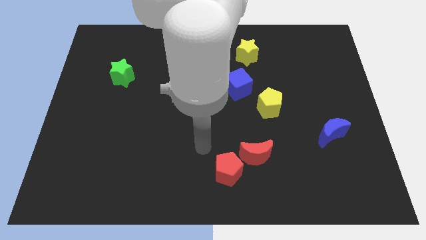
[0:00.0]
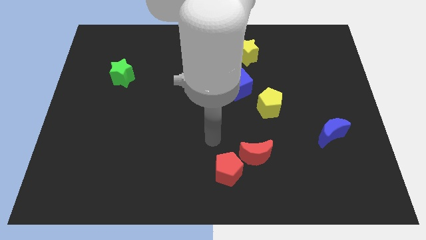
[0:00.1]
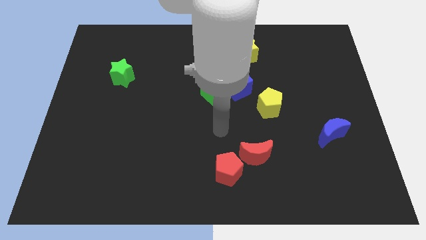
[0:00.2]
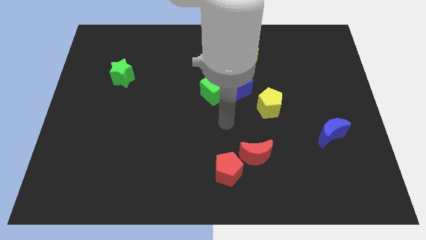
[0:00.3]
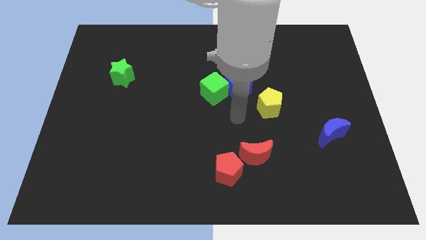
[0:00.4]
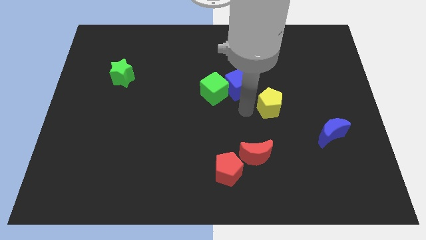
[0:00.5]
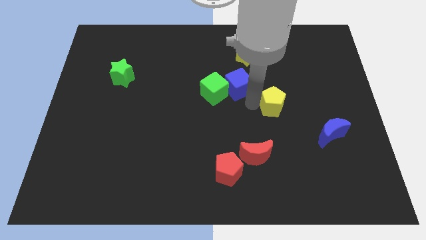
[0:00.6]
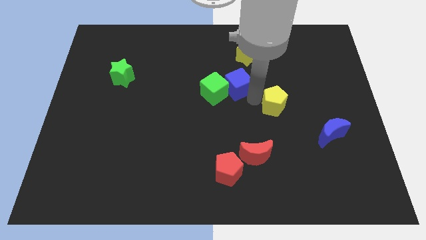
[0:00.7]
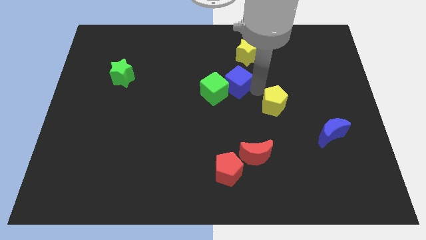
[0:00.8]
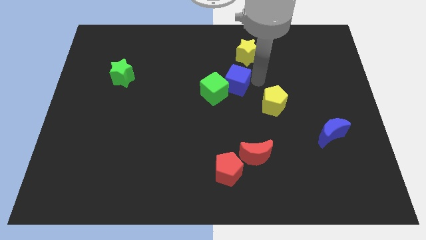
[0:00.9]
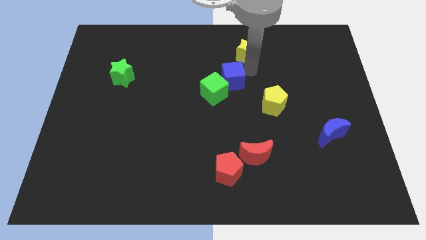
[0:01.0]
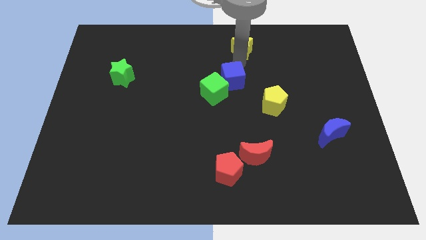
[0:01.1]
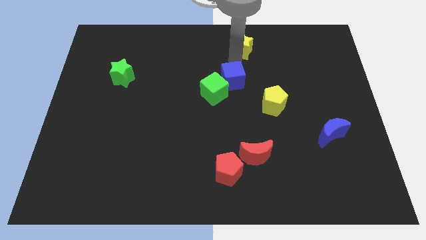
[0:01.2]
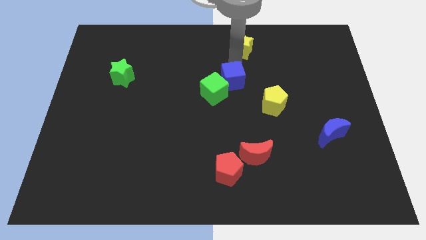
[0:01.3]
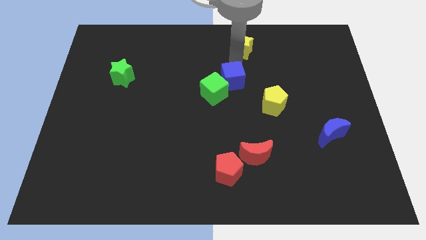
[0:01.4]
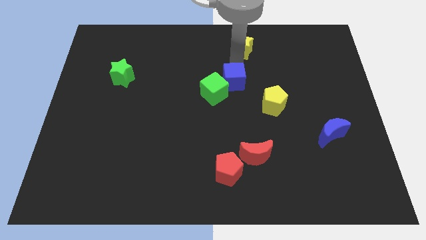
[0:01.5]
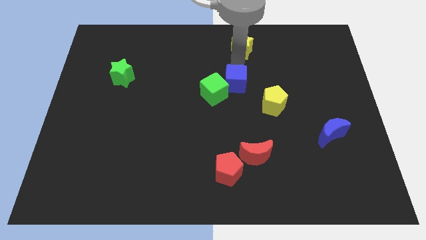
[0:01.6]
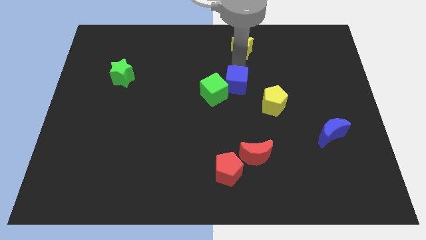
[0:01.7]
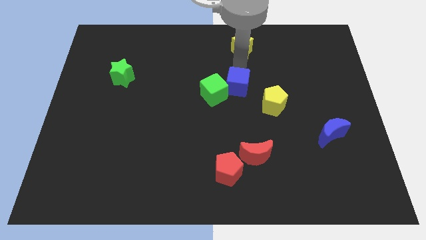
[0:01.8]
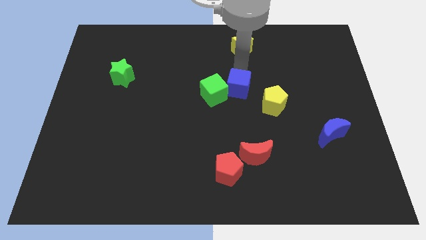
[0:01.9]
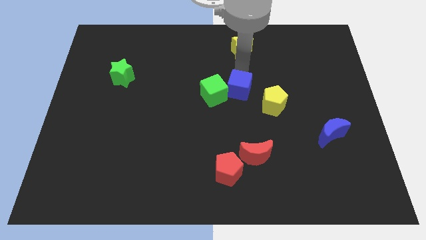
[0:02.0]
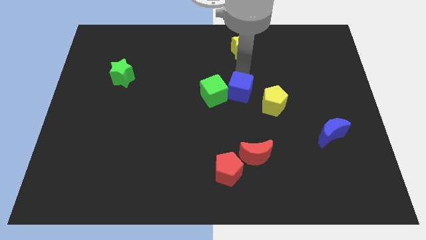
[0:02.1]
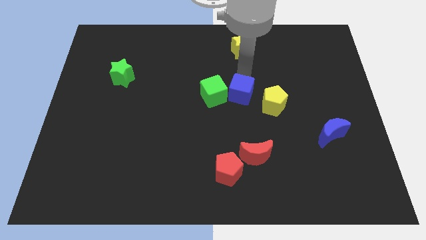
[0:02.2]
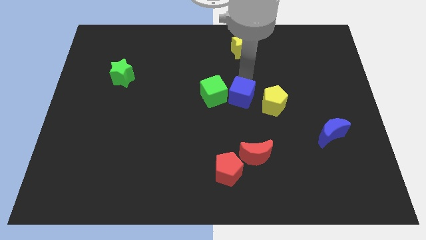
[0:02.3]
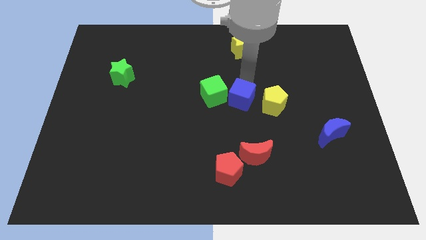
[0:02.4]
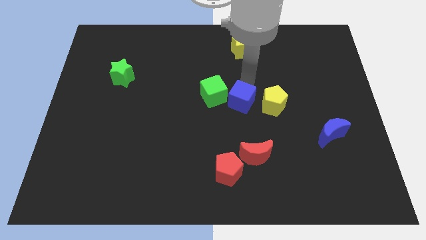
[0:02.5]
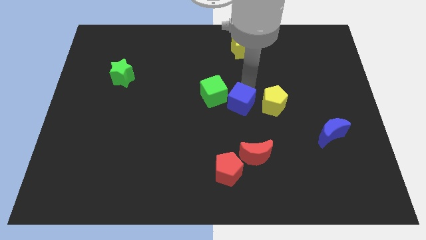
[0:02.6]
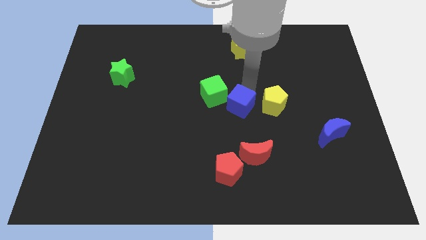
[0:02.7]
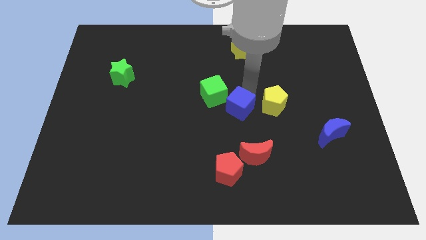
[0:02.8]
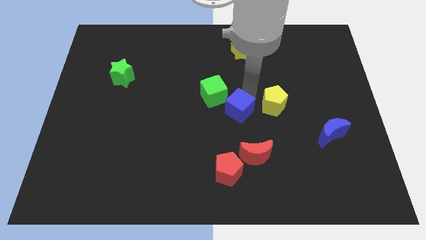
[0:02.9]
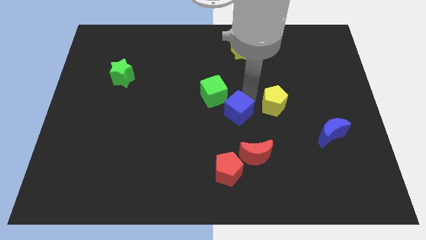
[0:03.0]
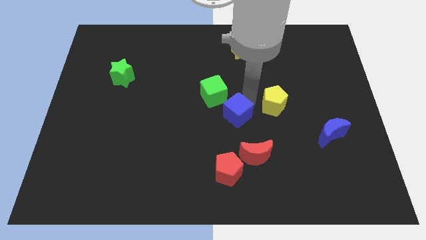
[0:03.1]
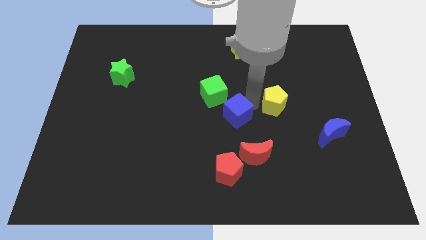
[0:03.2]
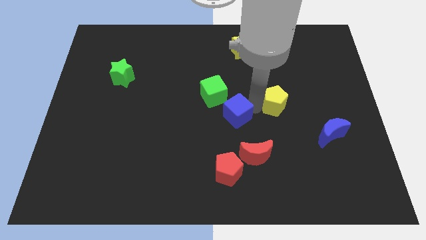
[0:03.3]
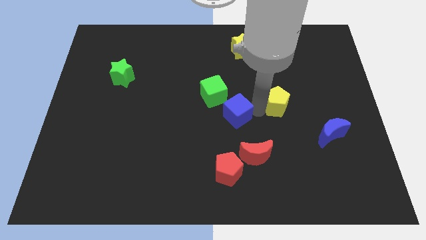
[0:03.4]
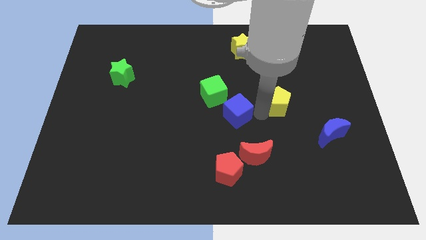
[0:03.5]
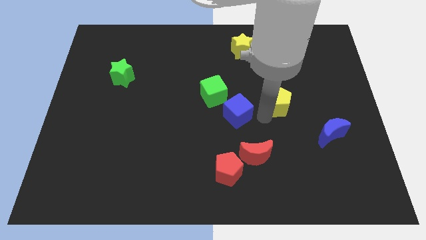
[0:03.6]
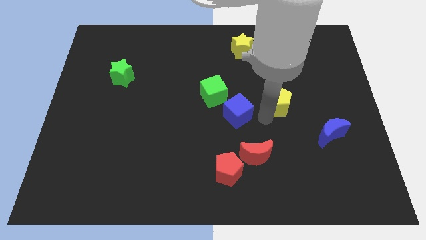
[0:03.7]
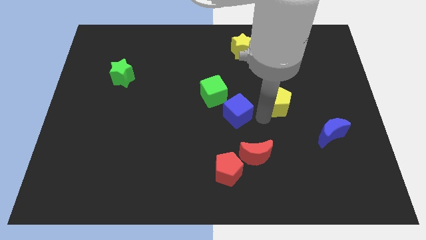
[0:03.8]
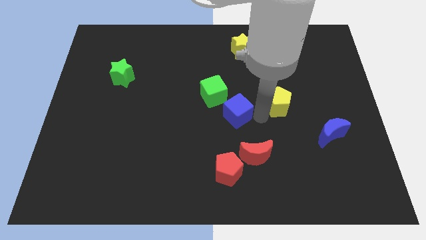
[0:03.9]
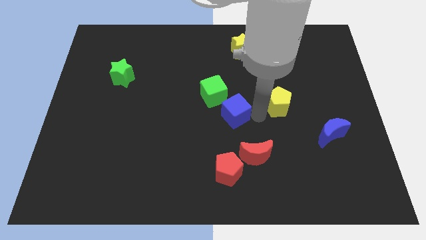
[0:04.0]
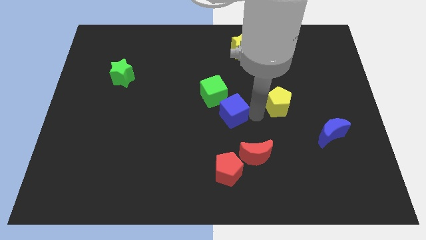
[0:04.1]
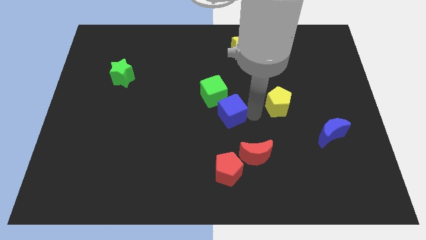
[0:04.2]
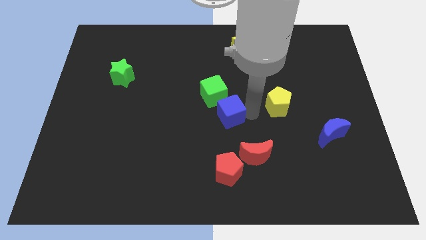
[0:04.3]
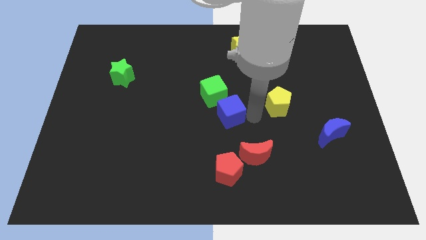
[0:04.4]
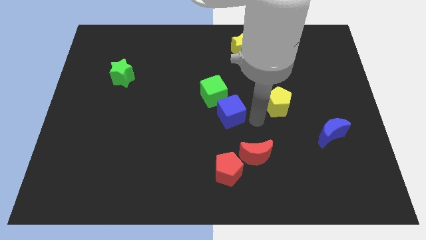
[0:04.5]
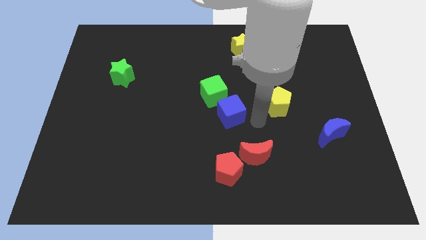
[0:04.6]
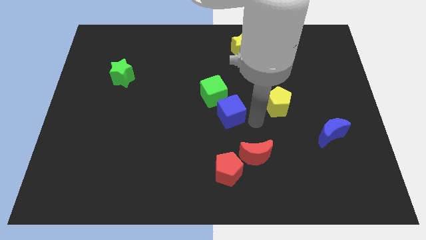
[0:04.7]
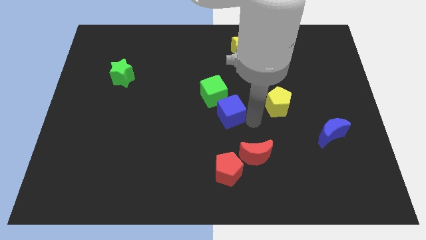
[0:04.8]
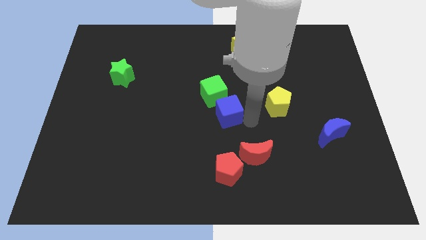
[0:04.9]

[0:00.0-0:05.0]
move the blue cube a little bit downwards and to the left diagonally

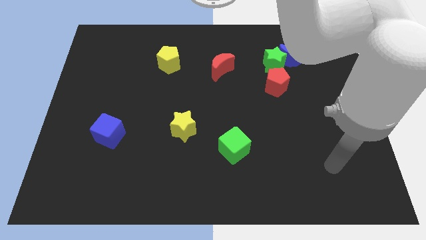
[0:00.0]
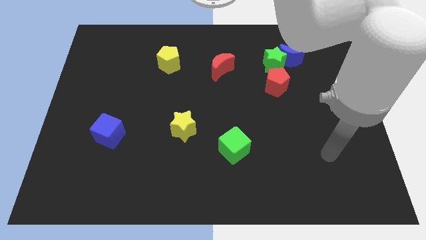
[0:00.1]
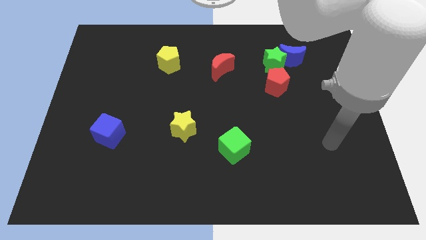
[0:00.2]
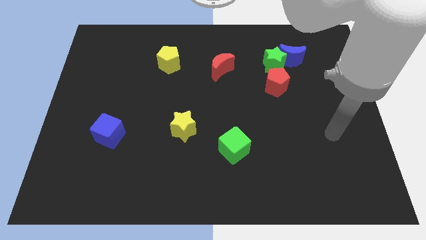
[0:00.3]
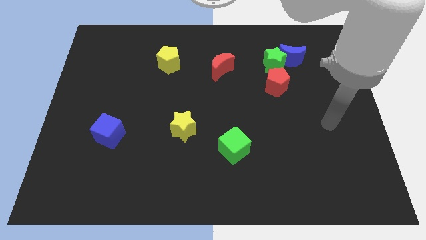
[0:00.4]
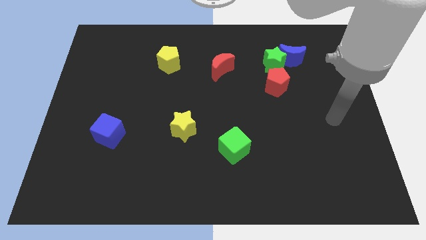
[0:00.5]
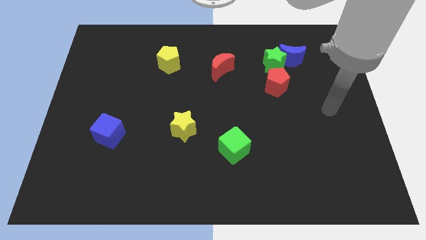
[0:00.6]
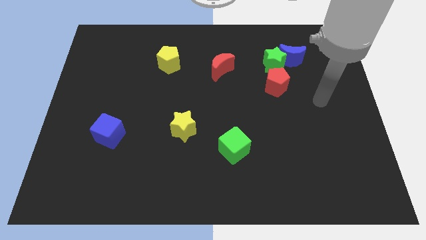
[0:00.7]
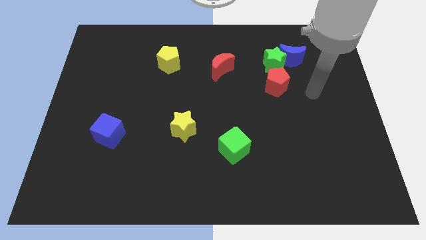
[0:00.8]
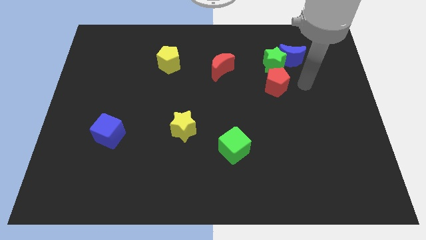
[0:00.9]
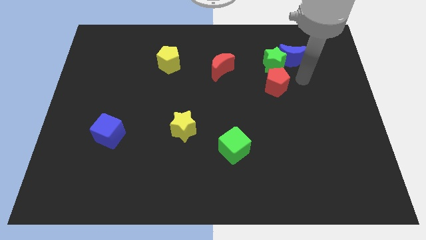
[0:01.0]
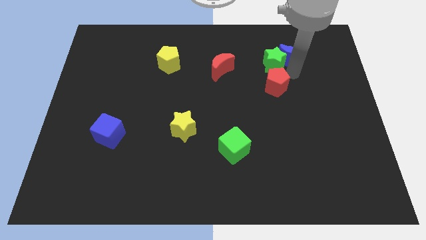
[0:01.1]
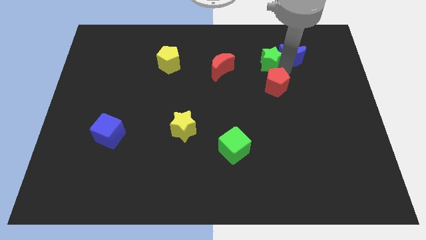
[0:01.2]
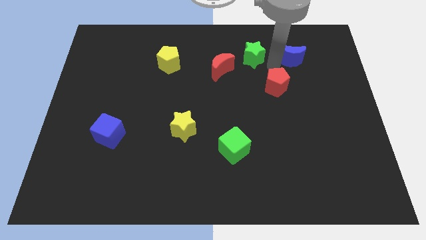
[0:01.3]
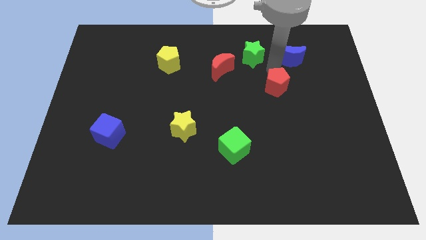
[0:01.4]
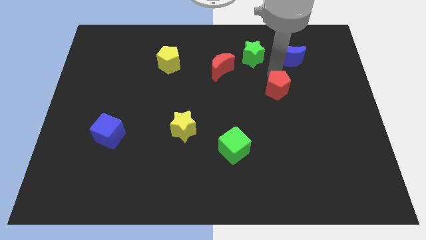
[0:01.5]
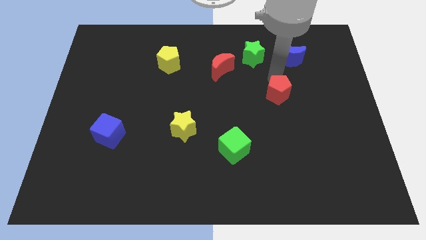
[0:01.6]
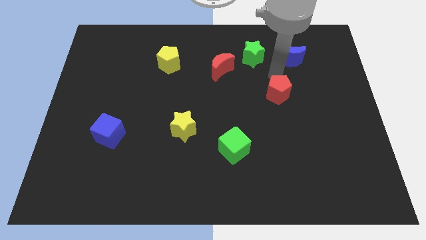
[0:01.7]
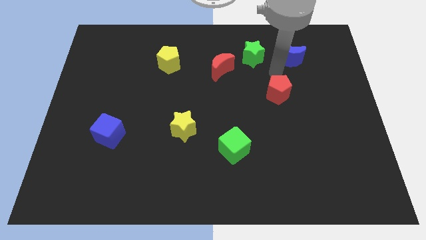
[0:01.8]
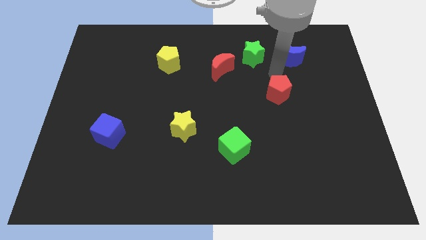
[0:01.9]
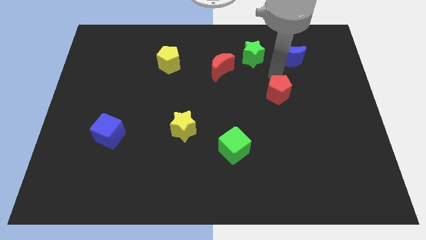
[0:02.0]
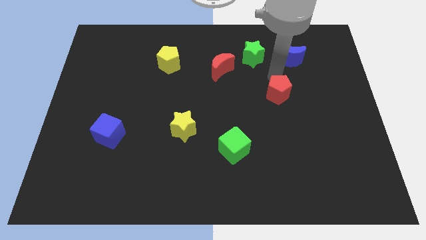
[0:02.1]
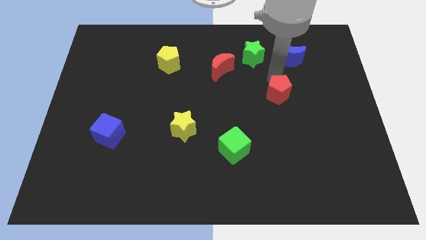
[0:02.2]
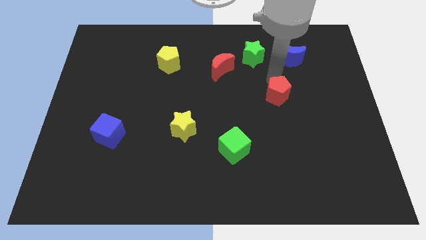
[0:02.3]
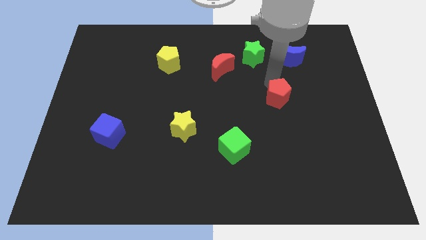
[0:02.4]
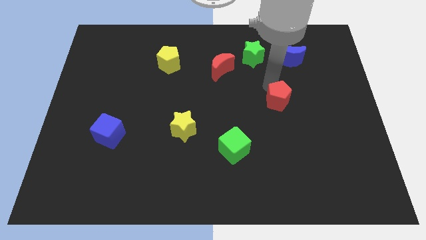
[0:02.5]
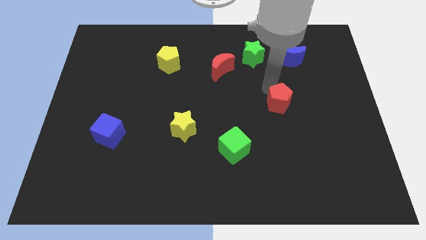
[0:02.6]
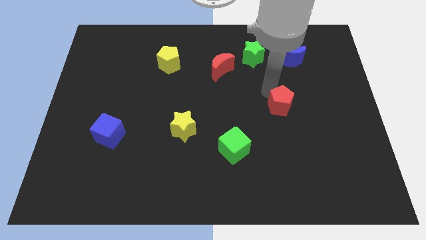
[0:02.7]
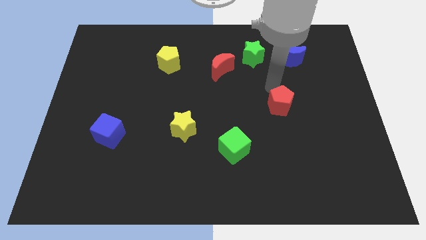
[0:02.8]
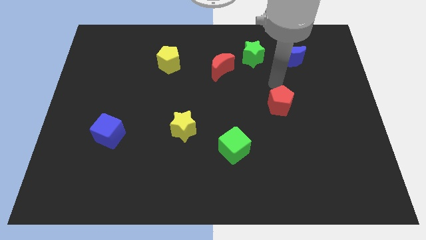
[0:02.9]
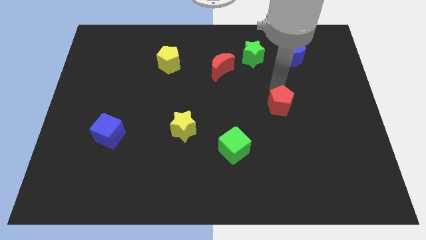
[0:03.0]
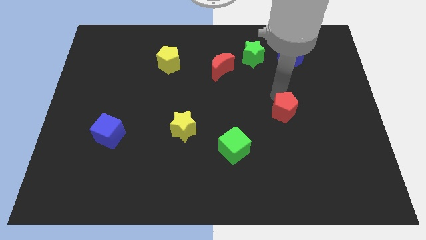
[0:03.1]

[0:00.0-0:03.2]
slide the red pentagon downwards a little bit

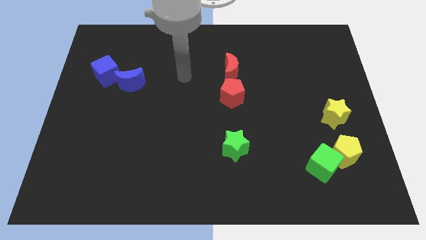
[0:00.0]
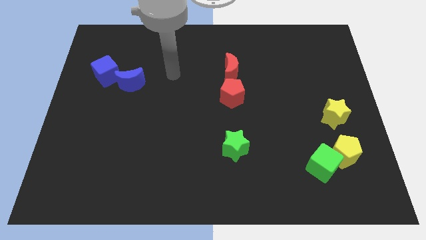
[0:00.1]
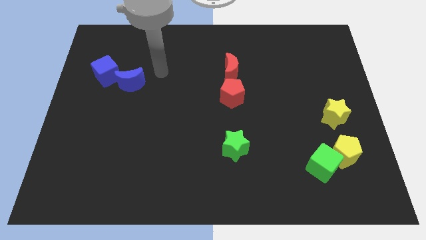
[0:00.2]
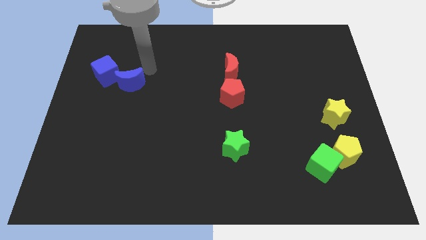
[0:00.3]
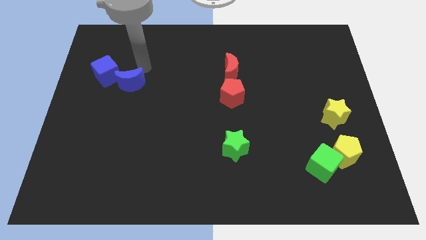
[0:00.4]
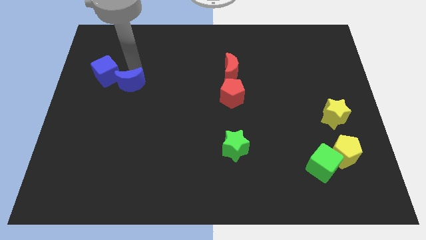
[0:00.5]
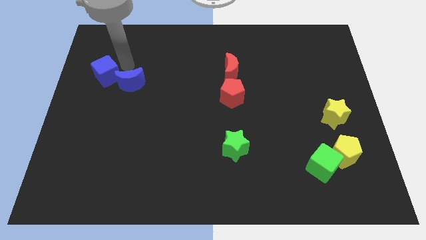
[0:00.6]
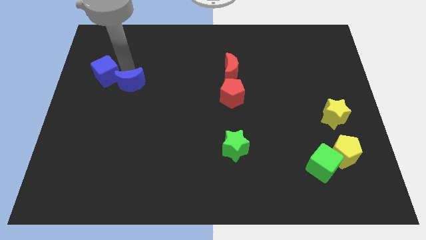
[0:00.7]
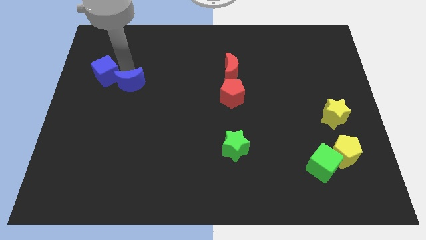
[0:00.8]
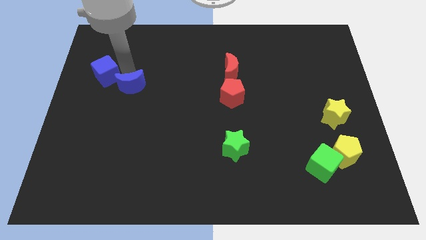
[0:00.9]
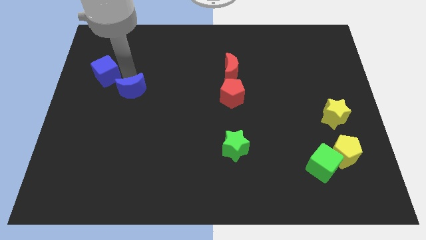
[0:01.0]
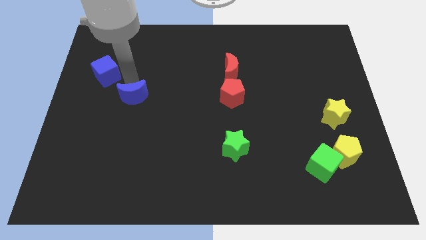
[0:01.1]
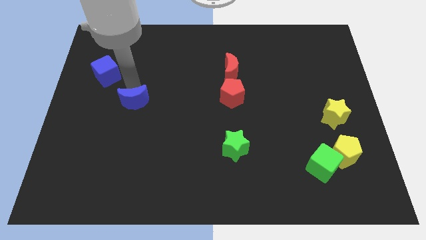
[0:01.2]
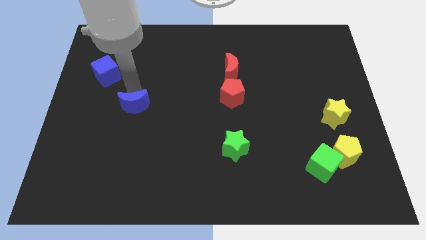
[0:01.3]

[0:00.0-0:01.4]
move the blue moon down a little bit
